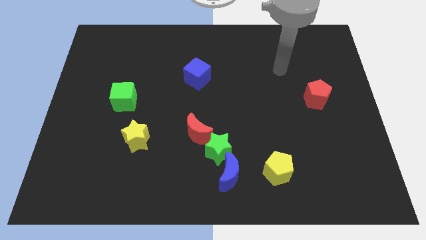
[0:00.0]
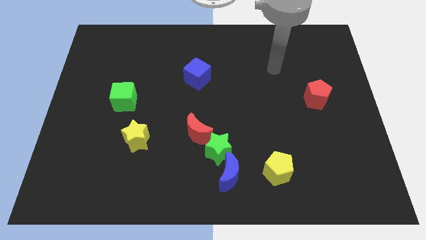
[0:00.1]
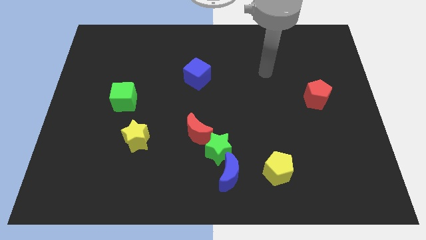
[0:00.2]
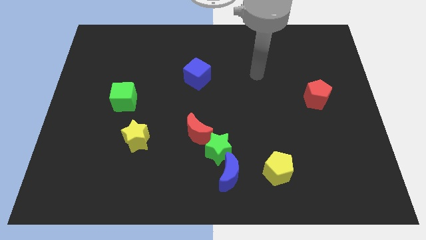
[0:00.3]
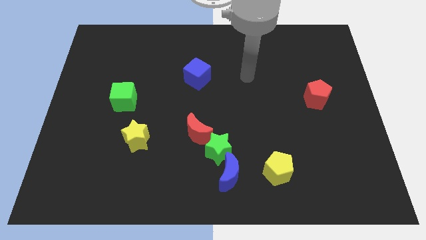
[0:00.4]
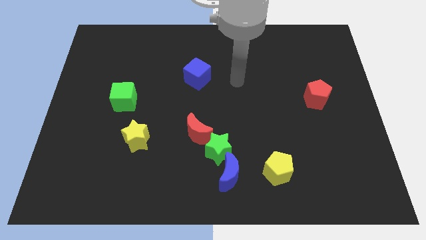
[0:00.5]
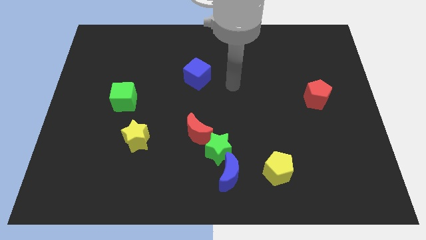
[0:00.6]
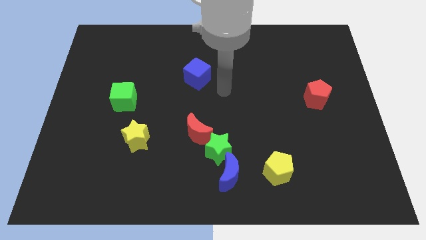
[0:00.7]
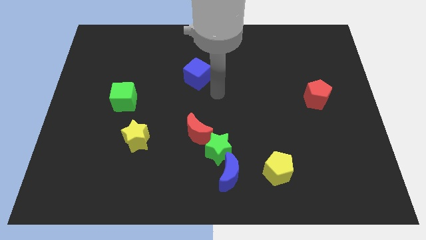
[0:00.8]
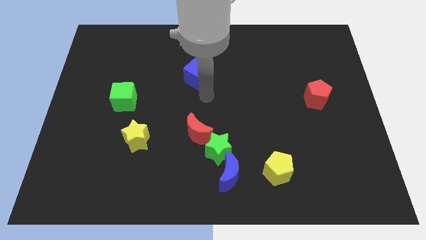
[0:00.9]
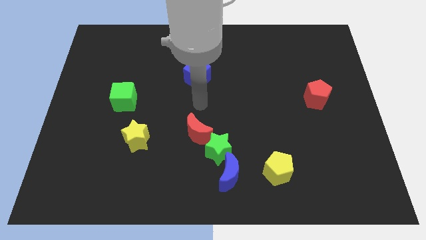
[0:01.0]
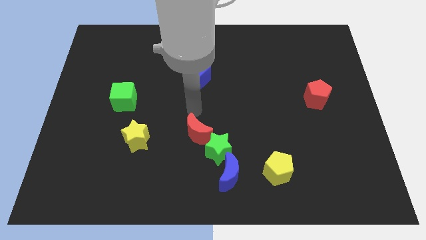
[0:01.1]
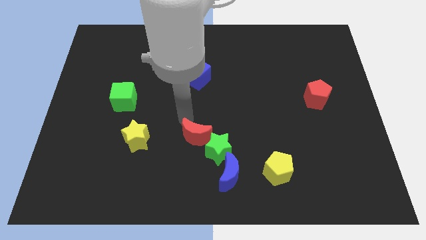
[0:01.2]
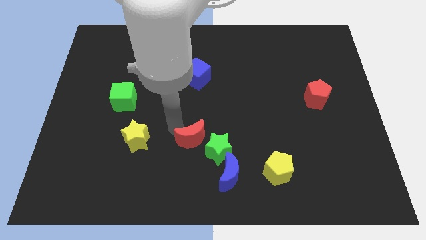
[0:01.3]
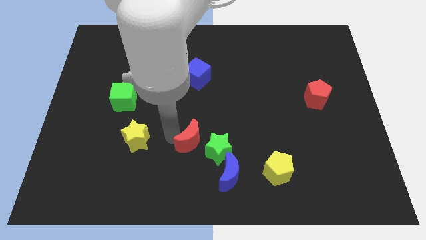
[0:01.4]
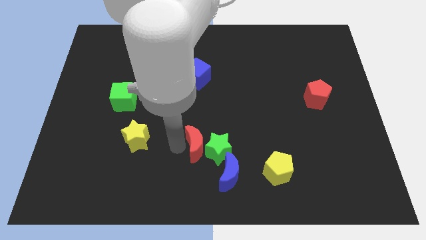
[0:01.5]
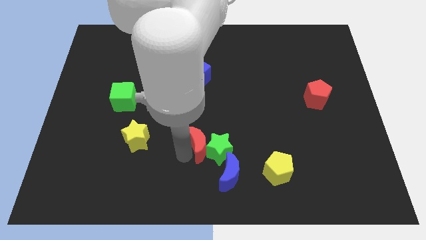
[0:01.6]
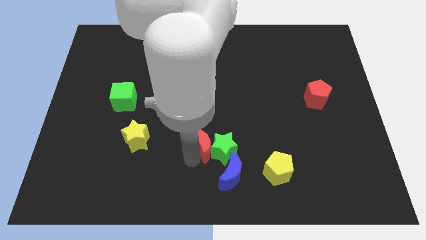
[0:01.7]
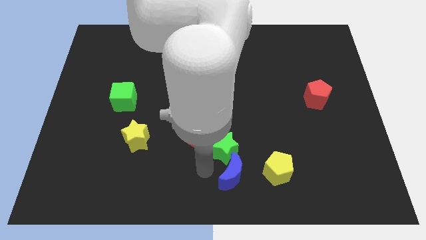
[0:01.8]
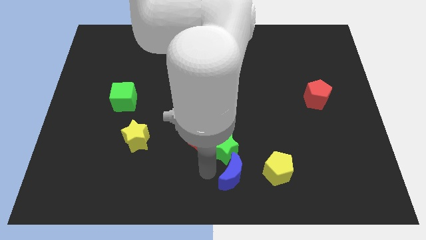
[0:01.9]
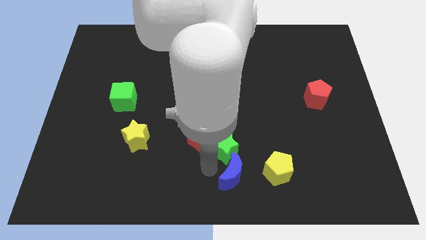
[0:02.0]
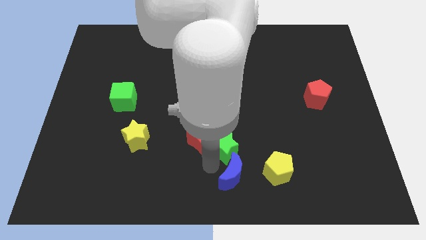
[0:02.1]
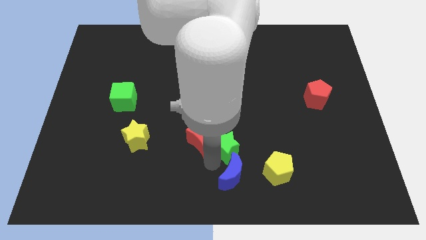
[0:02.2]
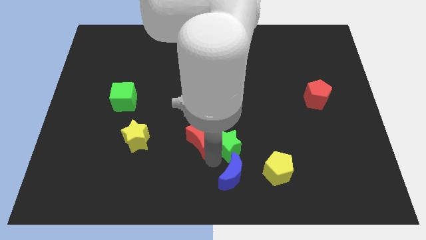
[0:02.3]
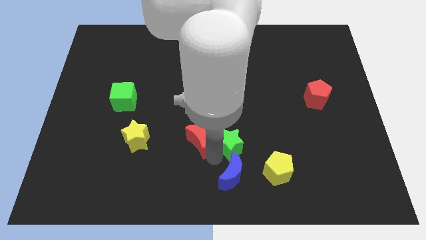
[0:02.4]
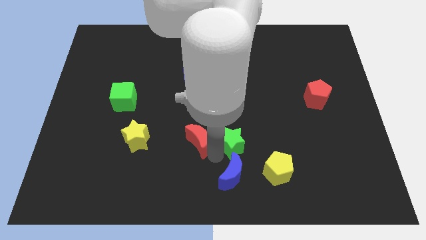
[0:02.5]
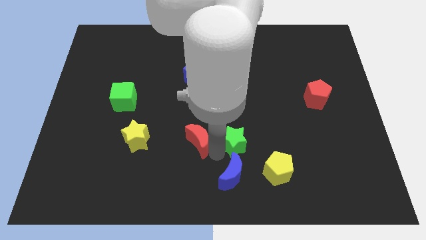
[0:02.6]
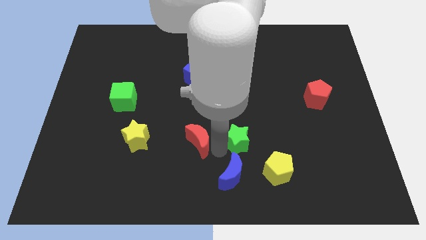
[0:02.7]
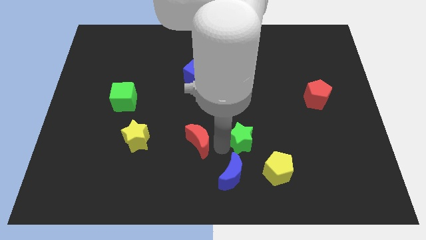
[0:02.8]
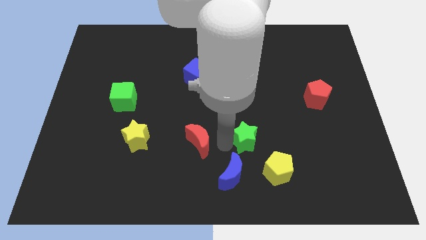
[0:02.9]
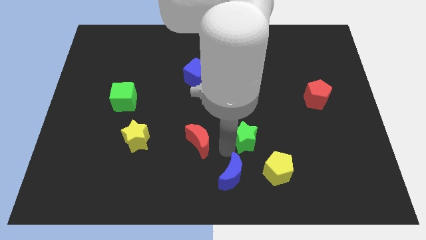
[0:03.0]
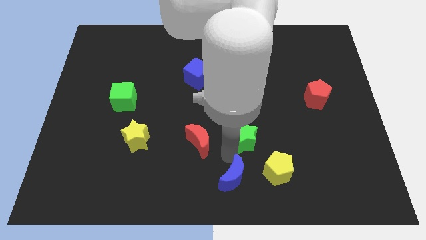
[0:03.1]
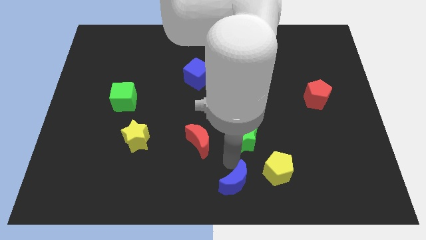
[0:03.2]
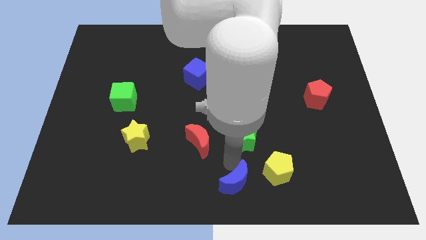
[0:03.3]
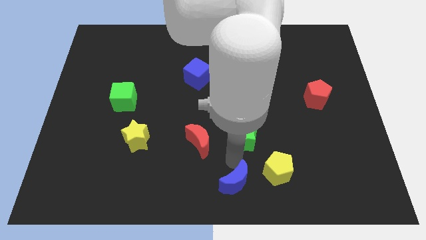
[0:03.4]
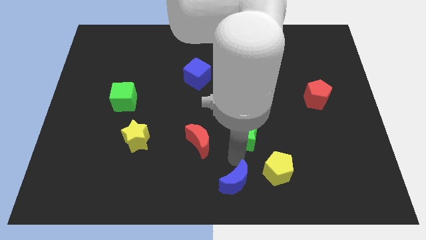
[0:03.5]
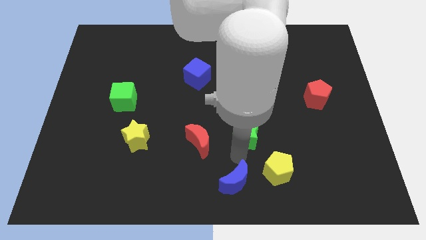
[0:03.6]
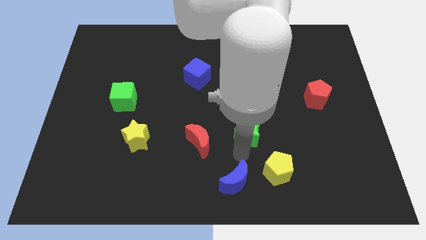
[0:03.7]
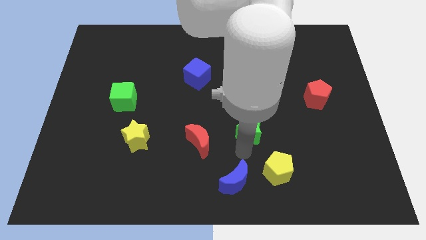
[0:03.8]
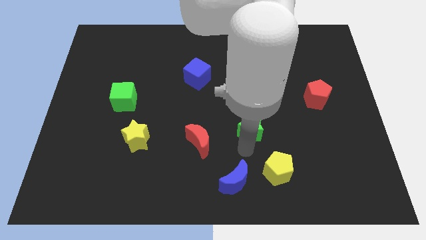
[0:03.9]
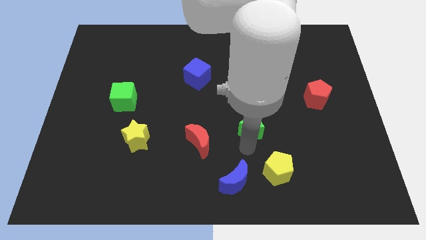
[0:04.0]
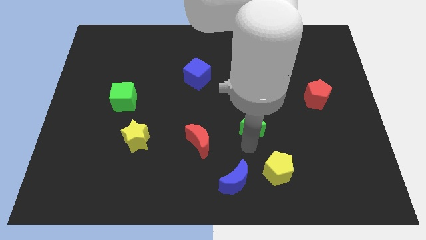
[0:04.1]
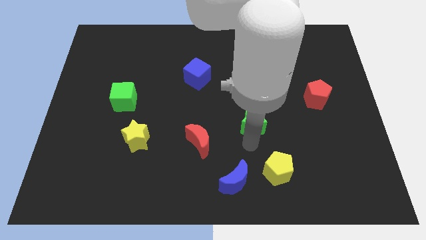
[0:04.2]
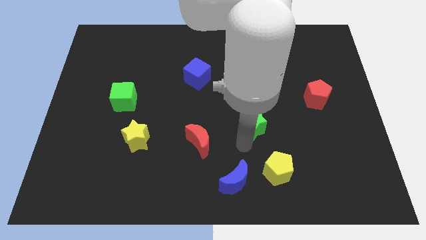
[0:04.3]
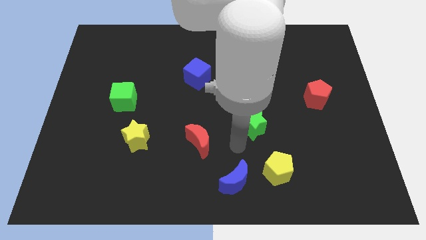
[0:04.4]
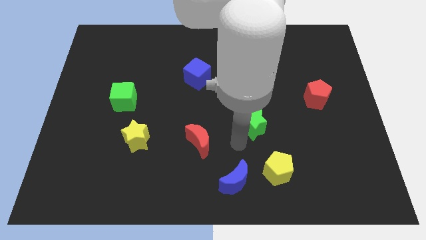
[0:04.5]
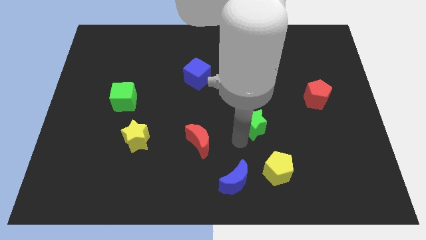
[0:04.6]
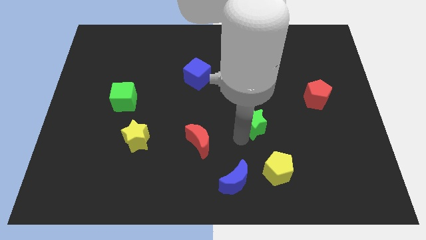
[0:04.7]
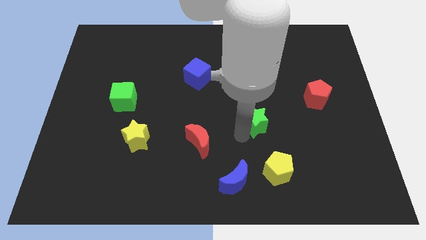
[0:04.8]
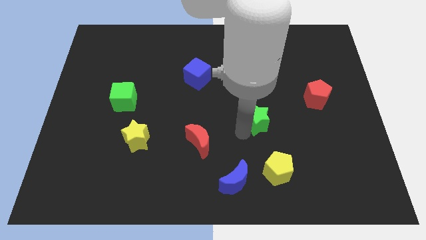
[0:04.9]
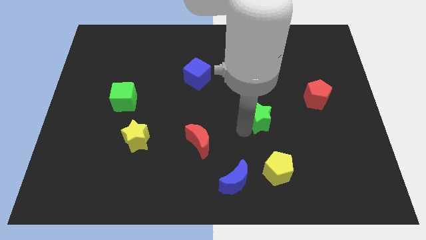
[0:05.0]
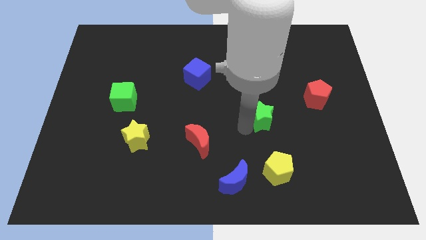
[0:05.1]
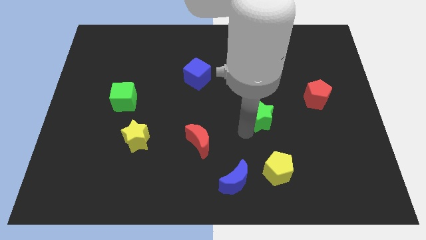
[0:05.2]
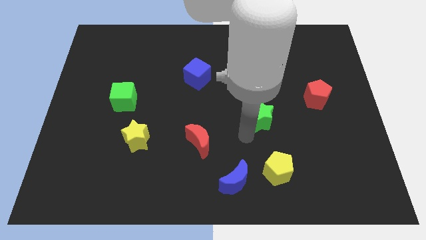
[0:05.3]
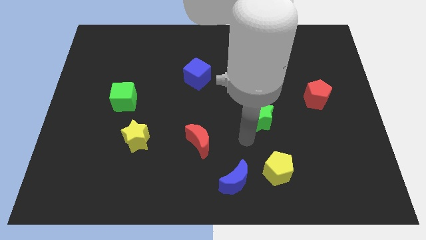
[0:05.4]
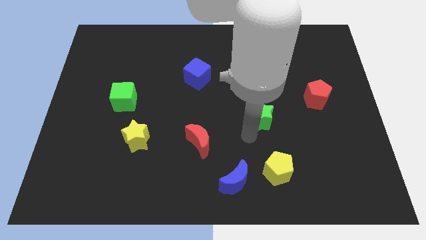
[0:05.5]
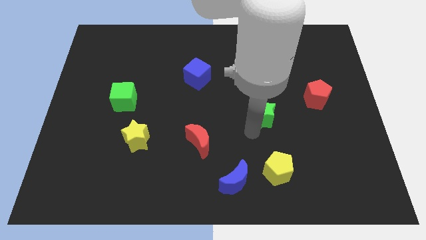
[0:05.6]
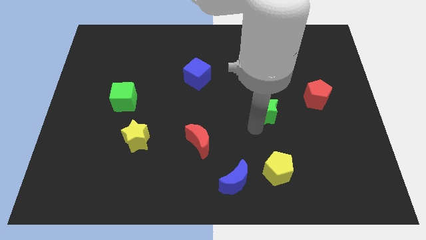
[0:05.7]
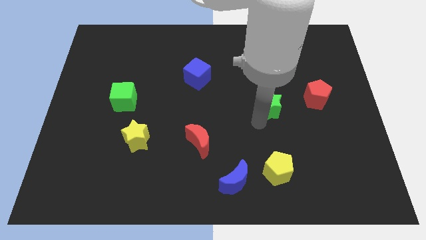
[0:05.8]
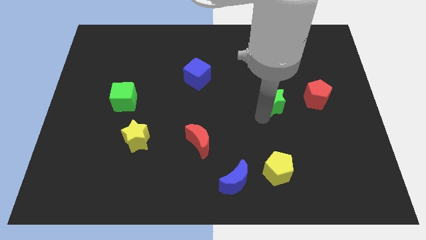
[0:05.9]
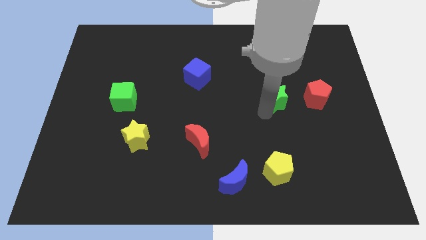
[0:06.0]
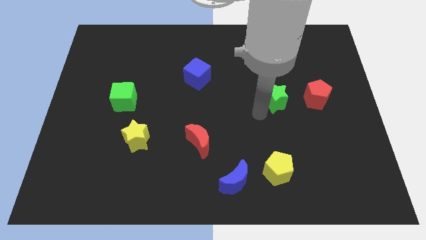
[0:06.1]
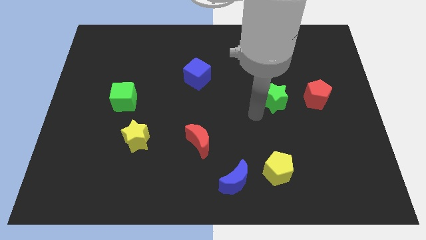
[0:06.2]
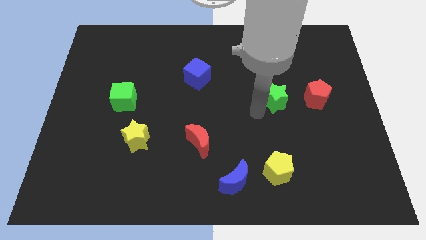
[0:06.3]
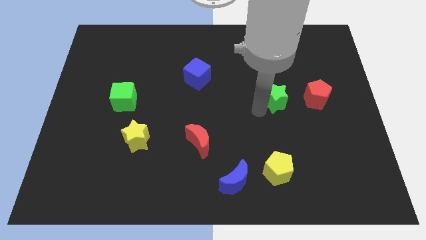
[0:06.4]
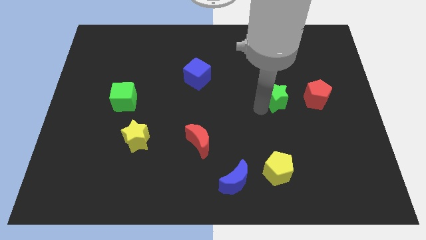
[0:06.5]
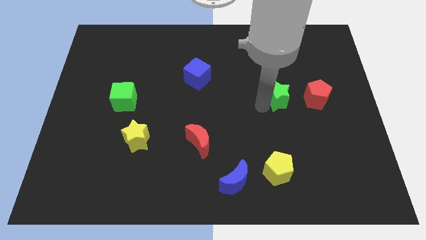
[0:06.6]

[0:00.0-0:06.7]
push the green star diagonally up and to the right

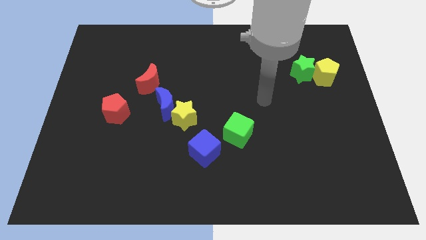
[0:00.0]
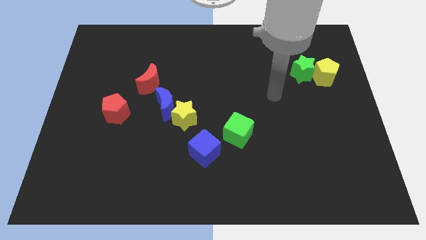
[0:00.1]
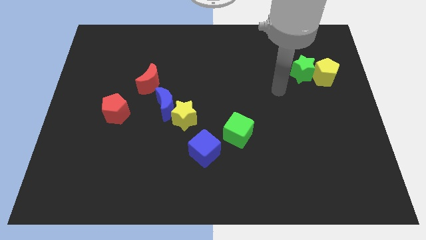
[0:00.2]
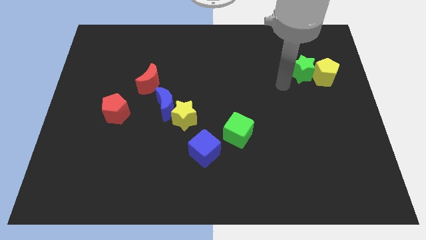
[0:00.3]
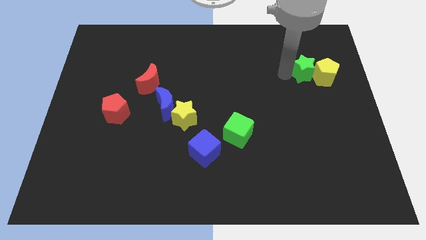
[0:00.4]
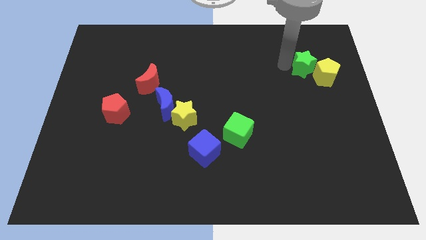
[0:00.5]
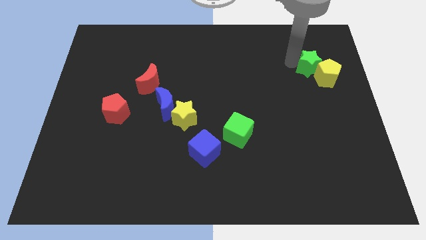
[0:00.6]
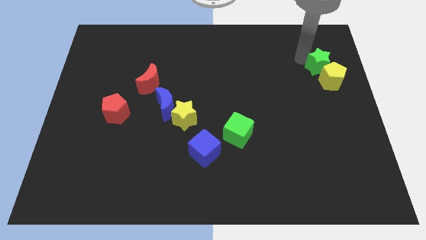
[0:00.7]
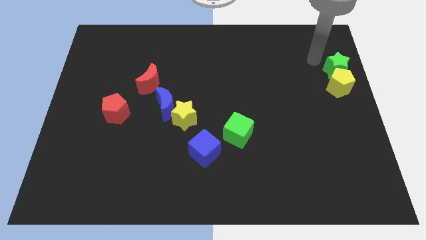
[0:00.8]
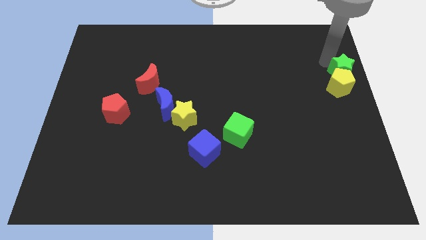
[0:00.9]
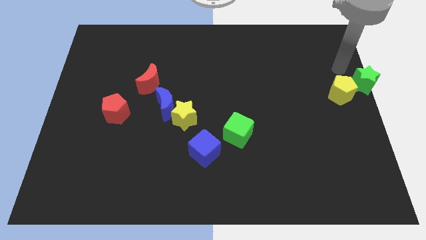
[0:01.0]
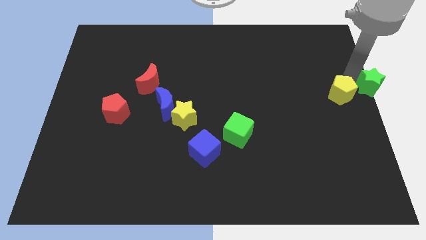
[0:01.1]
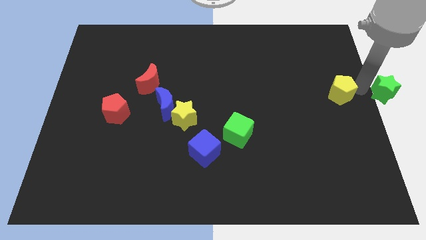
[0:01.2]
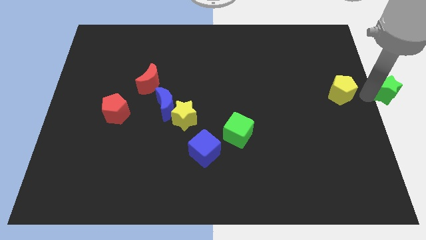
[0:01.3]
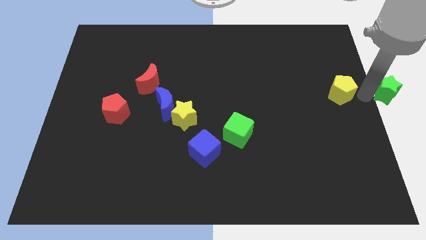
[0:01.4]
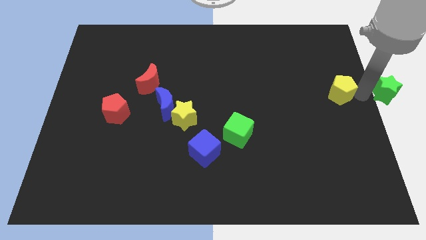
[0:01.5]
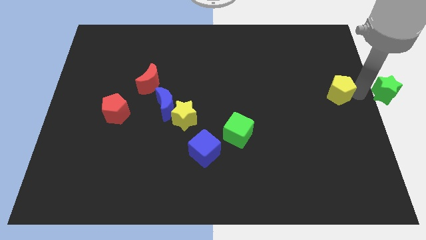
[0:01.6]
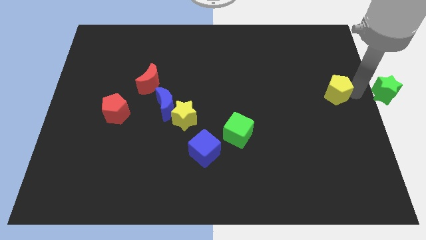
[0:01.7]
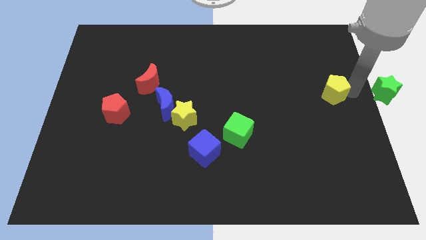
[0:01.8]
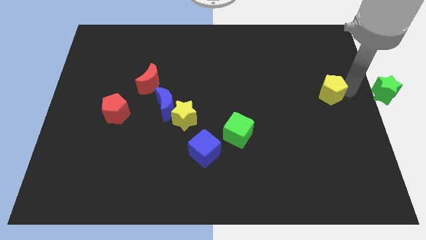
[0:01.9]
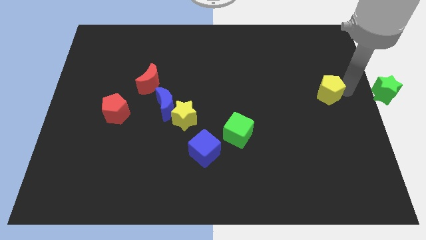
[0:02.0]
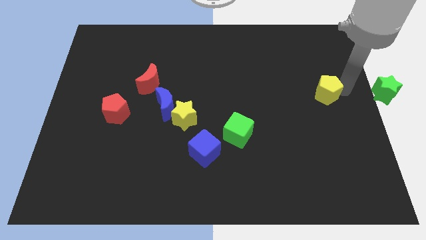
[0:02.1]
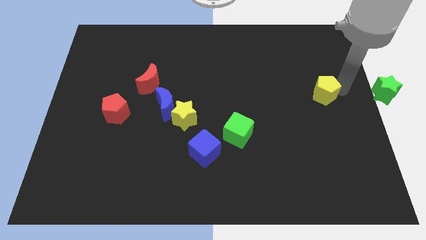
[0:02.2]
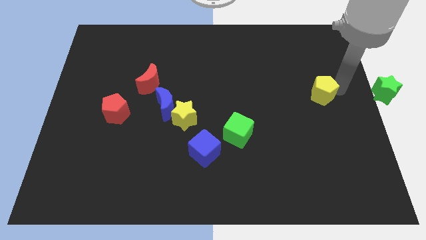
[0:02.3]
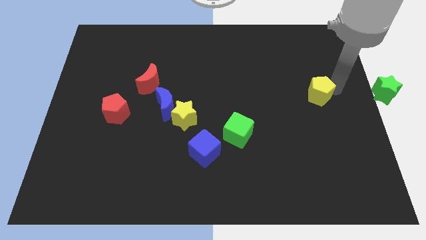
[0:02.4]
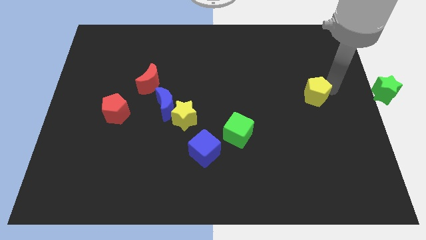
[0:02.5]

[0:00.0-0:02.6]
push the yellow pentagon a little bit down and to the left
